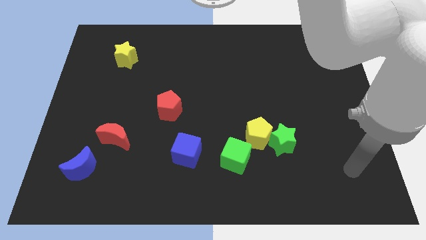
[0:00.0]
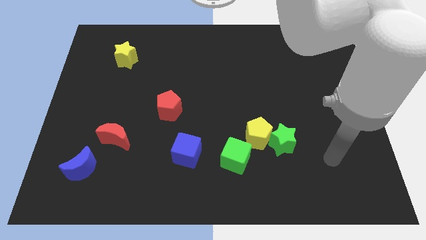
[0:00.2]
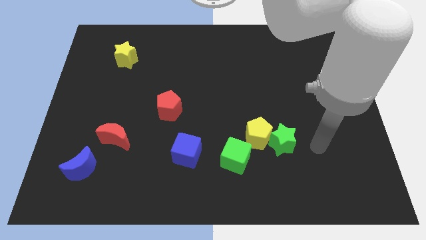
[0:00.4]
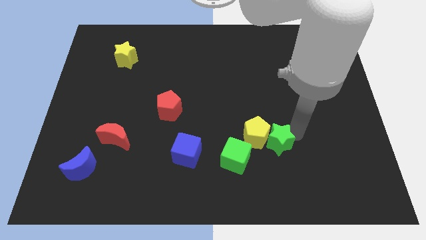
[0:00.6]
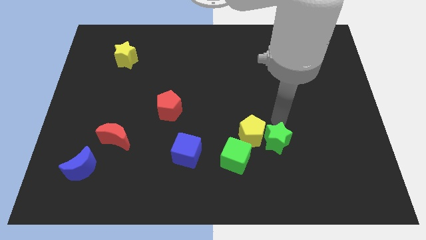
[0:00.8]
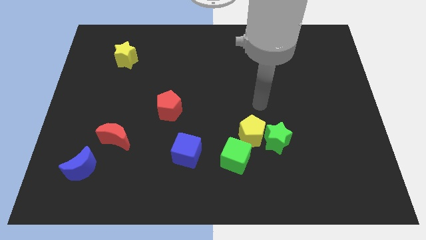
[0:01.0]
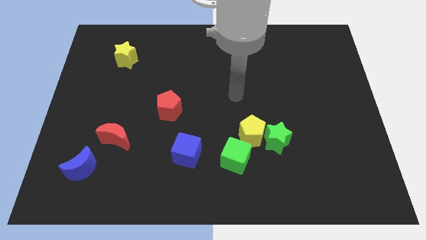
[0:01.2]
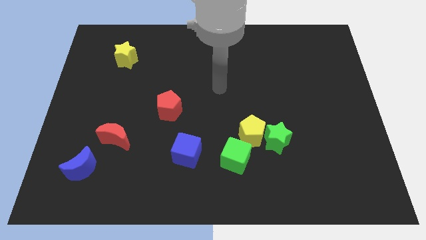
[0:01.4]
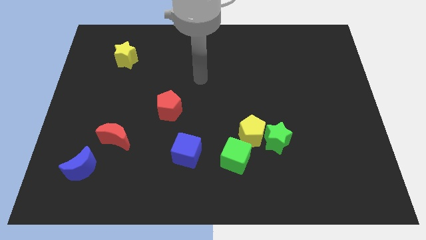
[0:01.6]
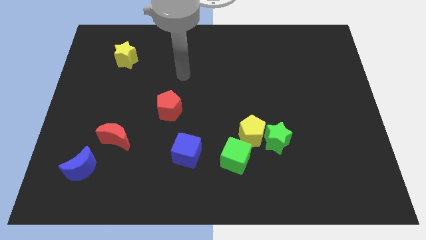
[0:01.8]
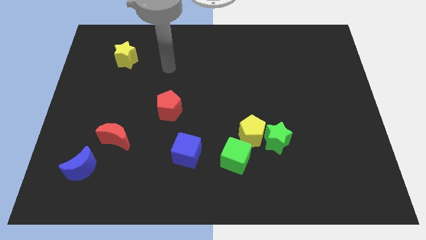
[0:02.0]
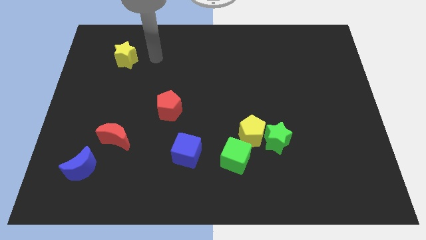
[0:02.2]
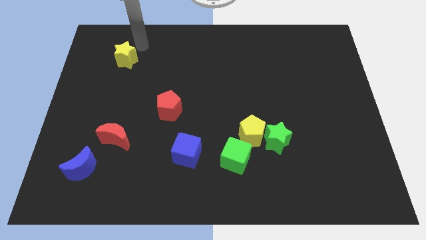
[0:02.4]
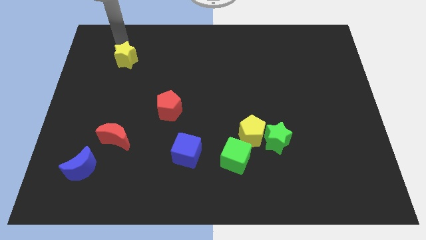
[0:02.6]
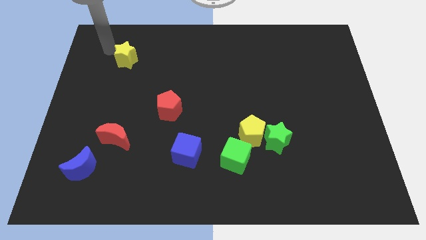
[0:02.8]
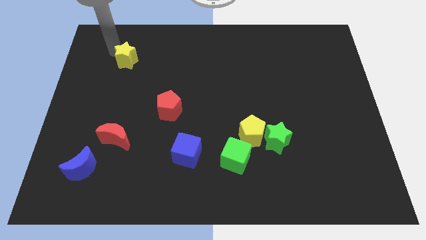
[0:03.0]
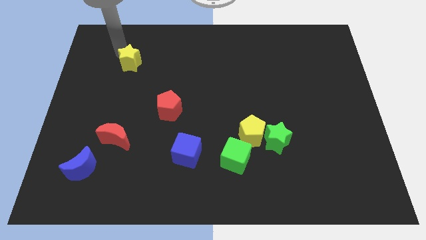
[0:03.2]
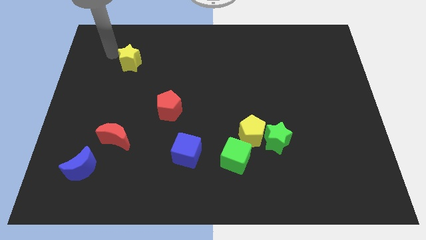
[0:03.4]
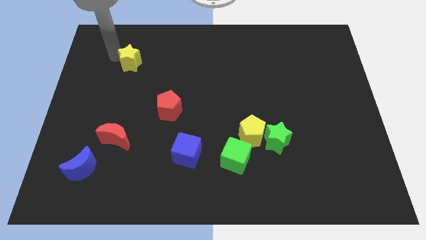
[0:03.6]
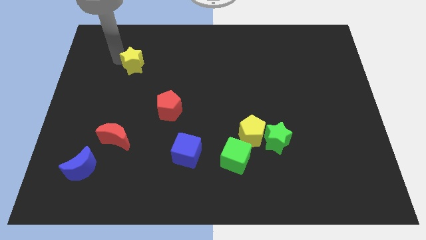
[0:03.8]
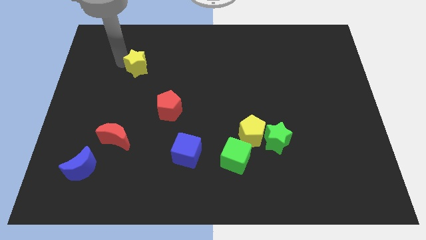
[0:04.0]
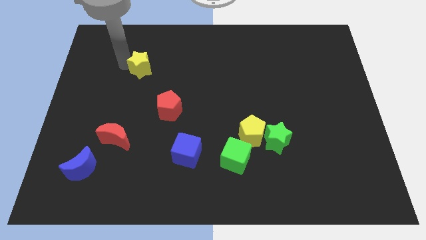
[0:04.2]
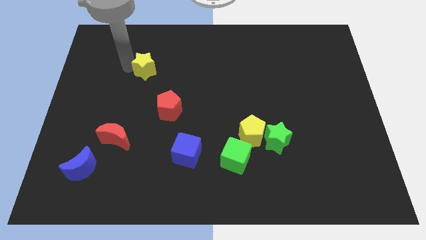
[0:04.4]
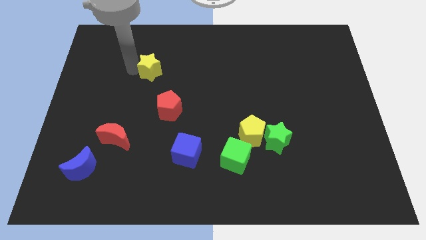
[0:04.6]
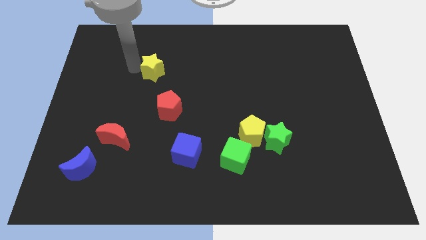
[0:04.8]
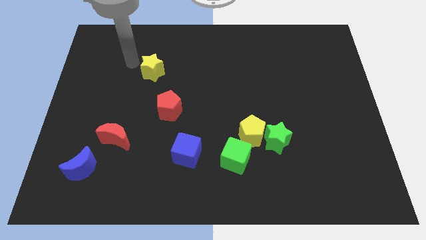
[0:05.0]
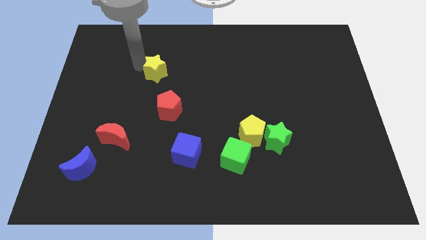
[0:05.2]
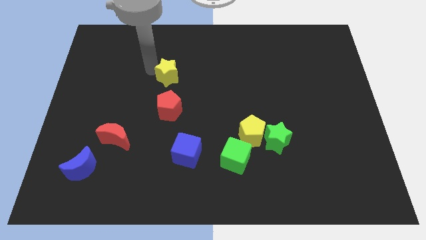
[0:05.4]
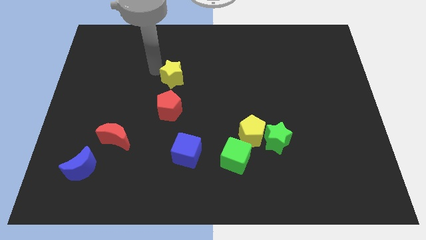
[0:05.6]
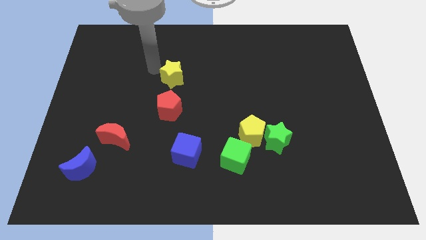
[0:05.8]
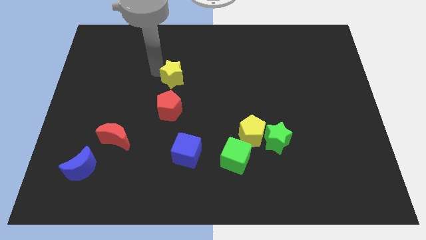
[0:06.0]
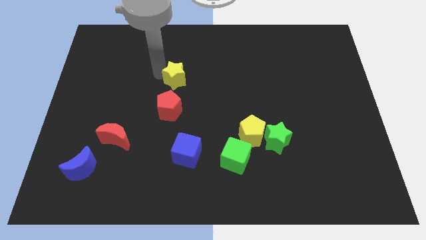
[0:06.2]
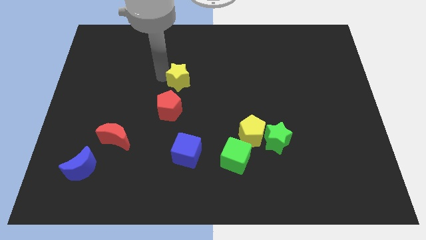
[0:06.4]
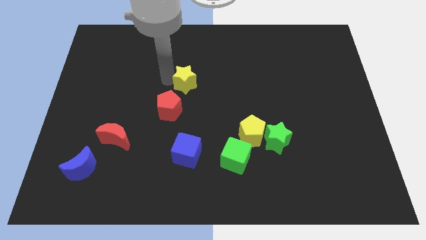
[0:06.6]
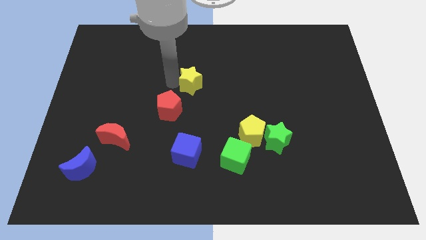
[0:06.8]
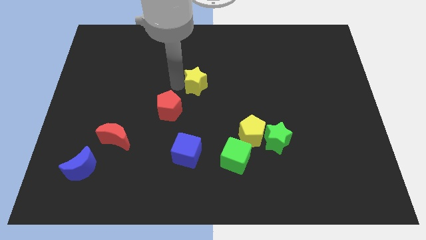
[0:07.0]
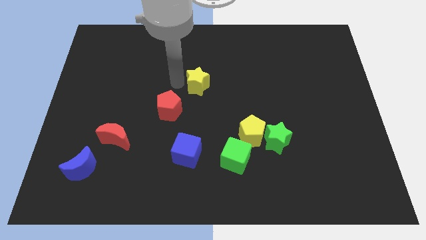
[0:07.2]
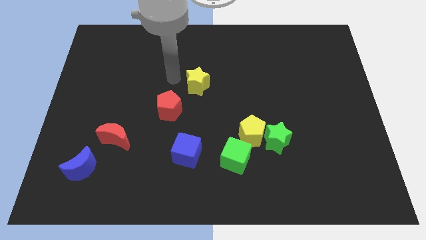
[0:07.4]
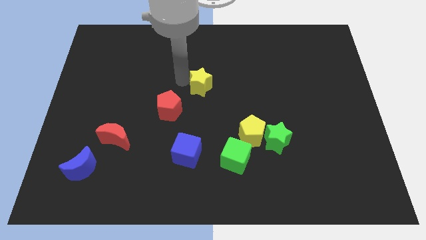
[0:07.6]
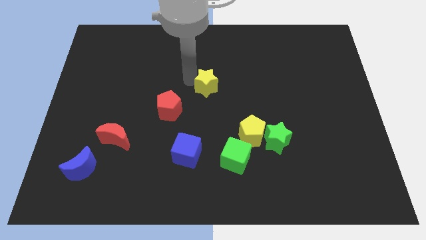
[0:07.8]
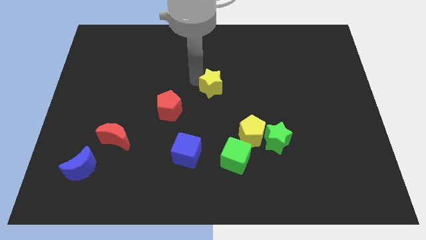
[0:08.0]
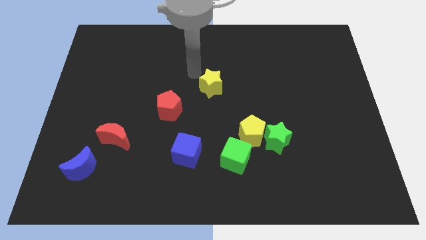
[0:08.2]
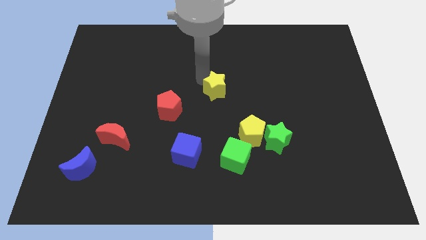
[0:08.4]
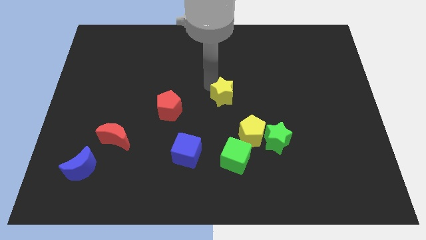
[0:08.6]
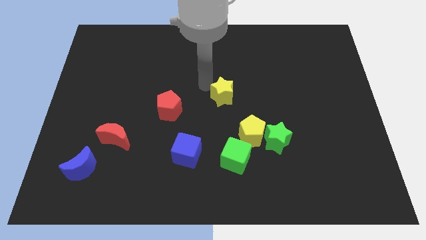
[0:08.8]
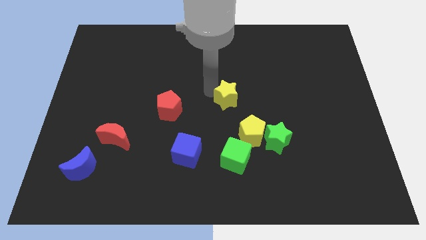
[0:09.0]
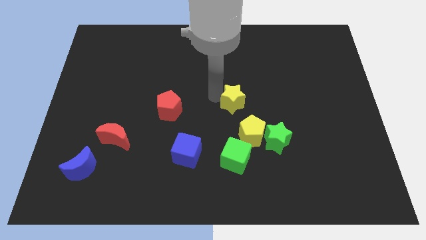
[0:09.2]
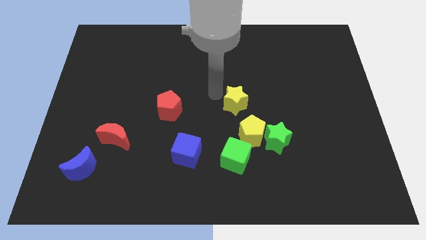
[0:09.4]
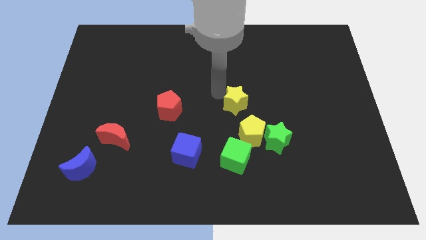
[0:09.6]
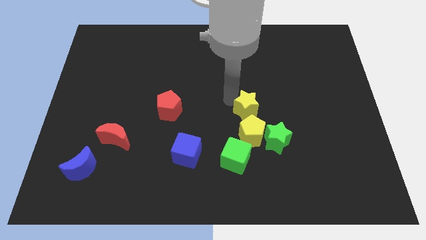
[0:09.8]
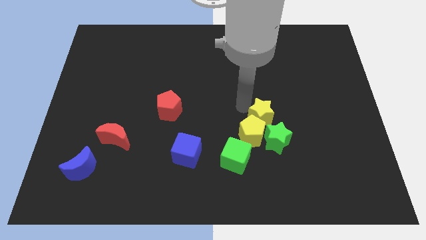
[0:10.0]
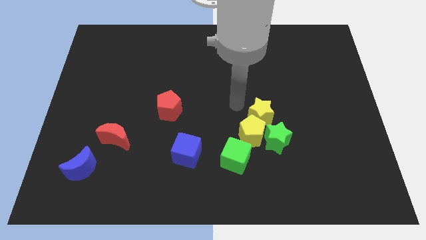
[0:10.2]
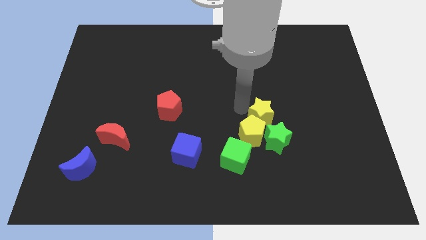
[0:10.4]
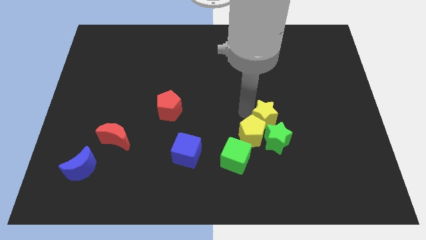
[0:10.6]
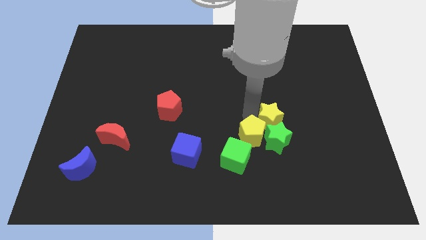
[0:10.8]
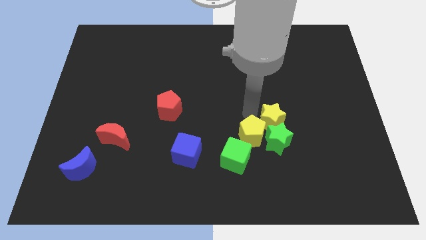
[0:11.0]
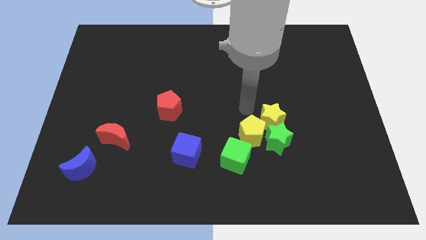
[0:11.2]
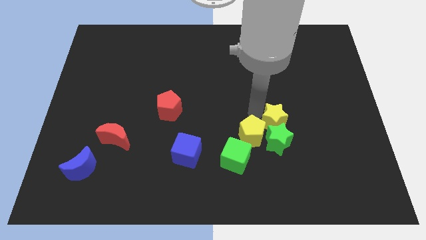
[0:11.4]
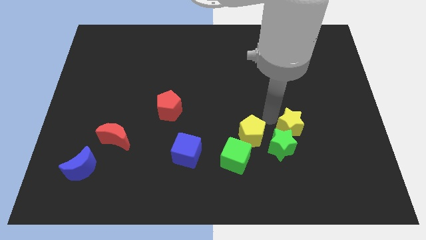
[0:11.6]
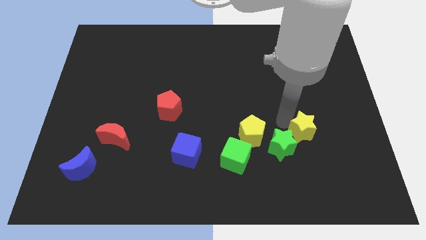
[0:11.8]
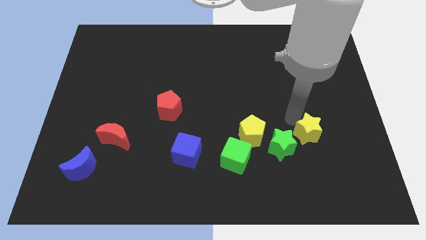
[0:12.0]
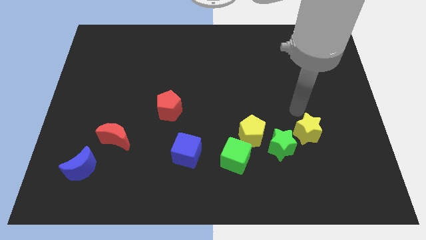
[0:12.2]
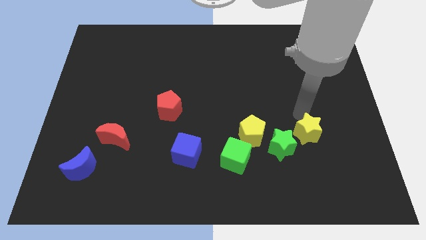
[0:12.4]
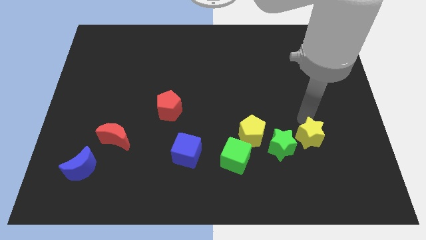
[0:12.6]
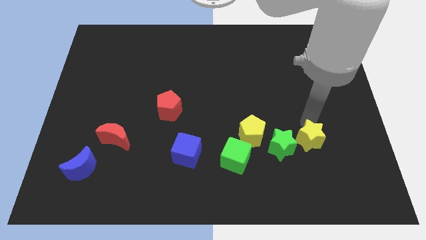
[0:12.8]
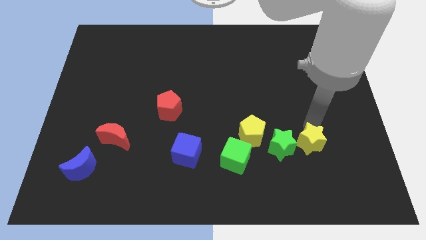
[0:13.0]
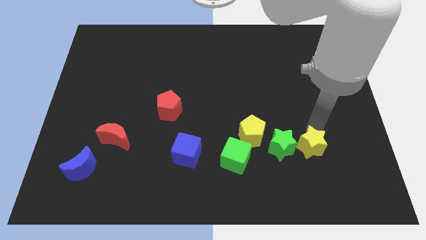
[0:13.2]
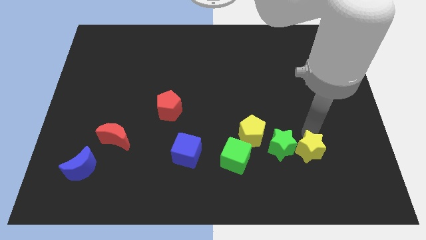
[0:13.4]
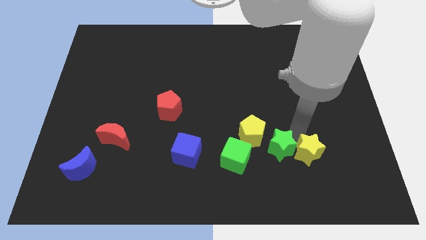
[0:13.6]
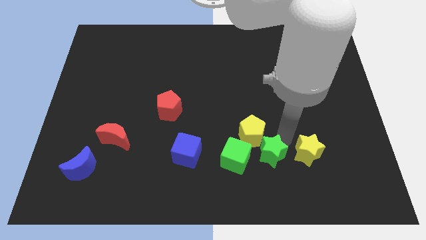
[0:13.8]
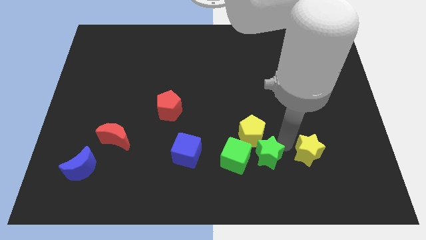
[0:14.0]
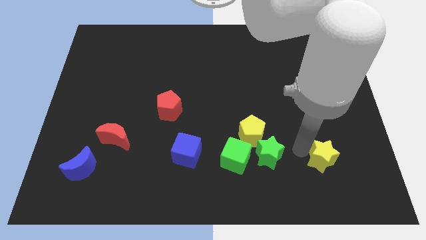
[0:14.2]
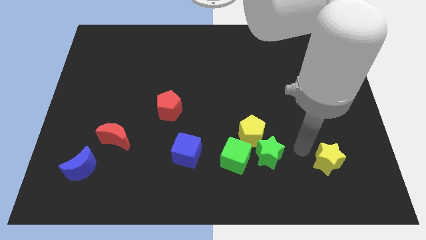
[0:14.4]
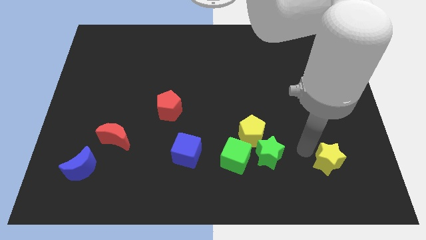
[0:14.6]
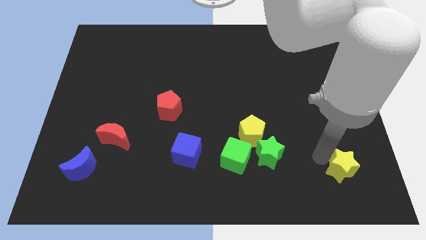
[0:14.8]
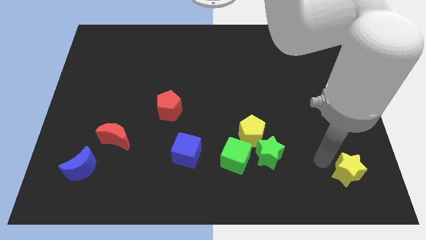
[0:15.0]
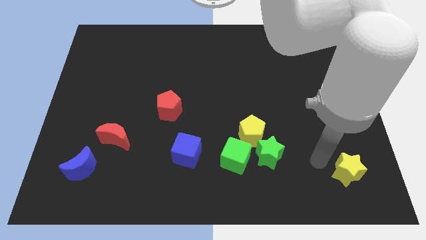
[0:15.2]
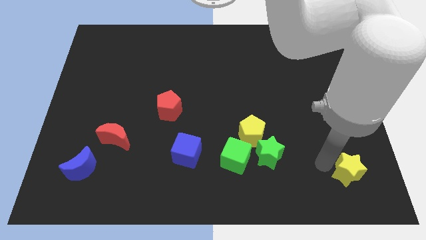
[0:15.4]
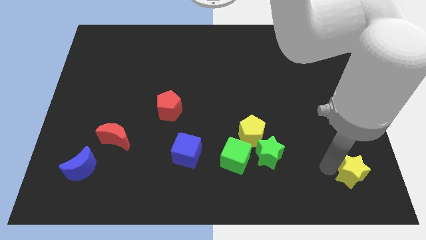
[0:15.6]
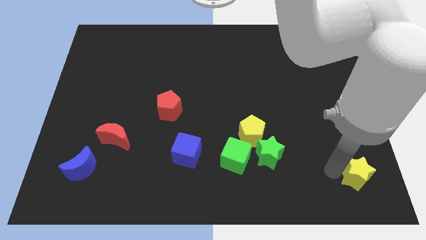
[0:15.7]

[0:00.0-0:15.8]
put the yellow star to the lower right corner
